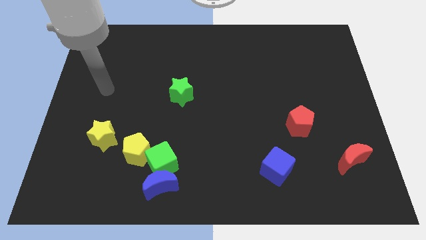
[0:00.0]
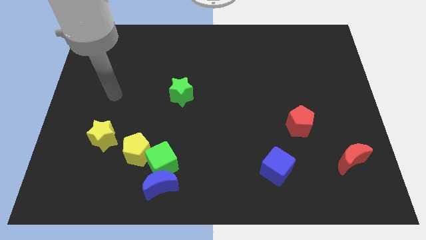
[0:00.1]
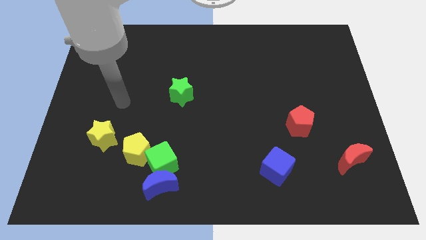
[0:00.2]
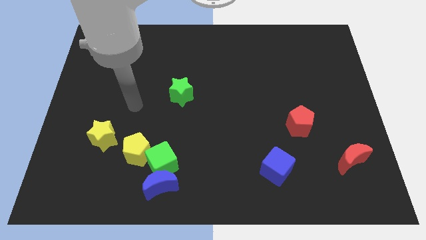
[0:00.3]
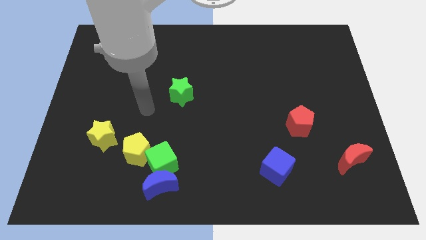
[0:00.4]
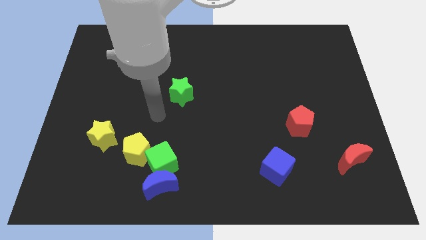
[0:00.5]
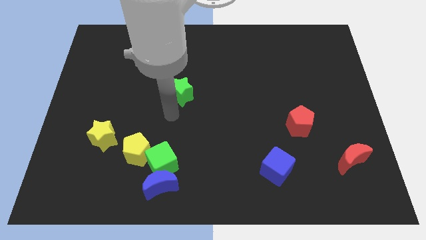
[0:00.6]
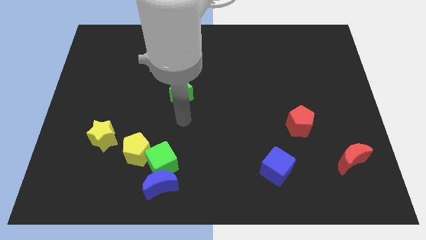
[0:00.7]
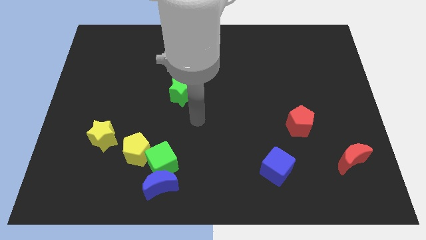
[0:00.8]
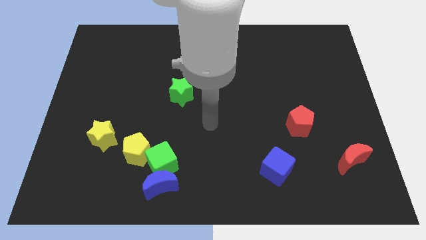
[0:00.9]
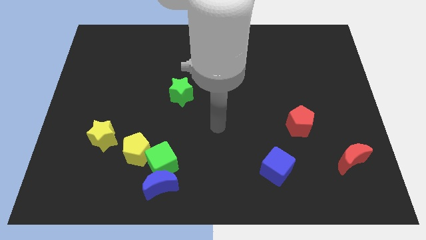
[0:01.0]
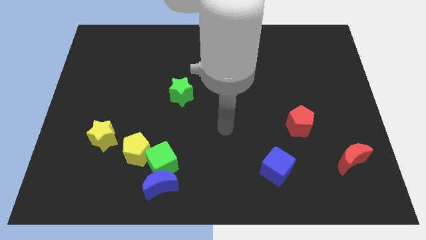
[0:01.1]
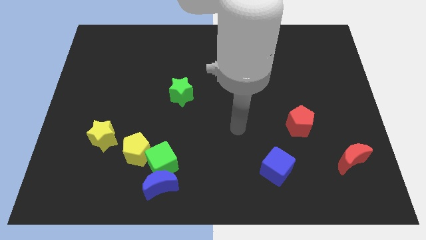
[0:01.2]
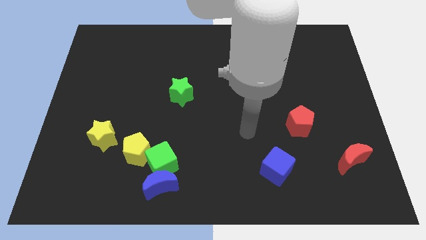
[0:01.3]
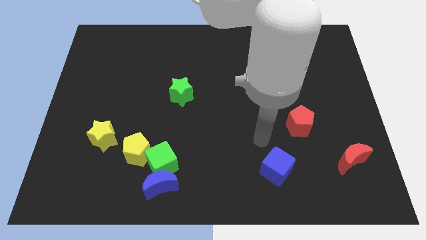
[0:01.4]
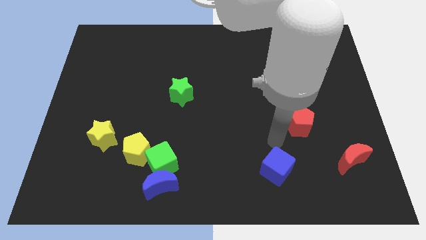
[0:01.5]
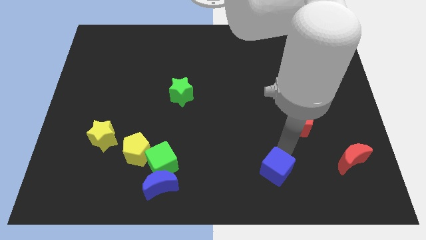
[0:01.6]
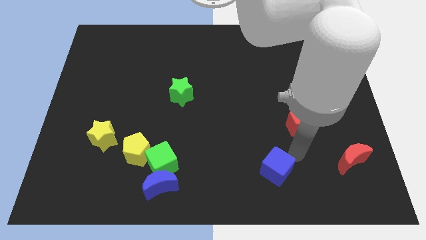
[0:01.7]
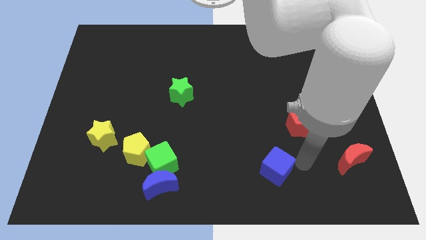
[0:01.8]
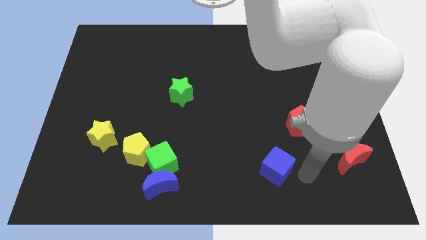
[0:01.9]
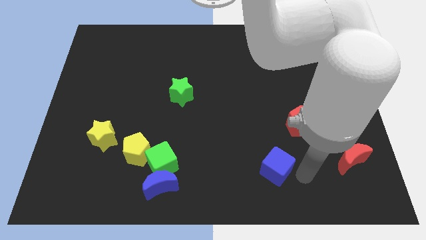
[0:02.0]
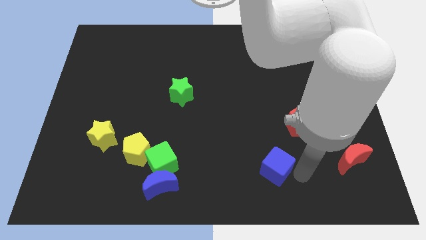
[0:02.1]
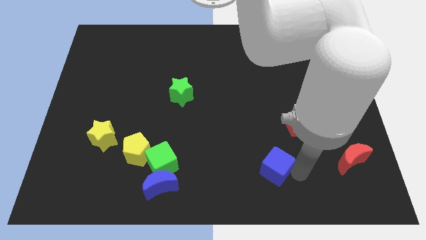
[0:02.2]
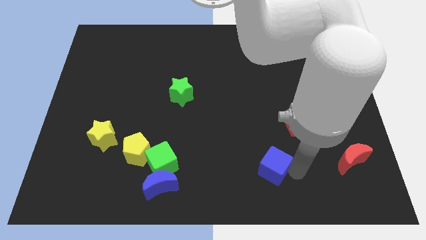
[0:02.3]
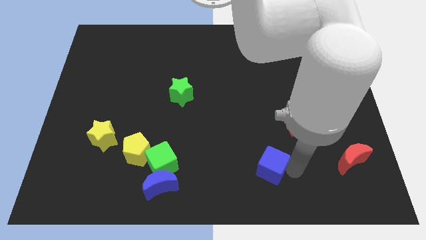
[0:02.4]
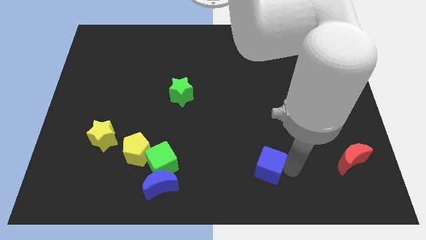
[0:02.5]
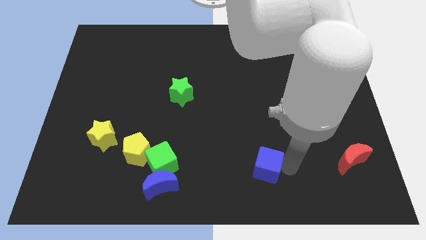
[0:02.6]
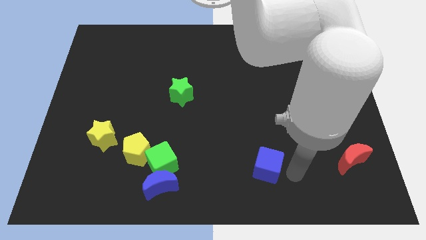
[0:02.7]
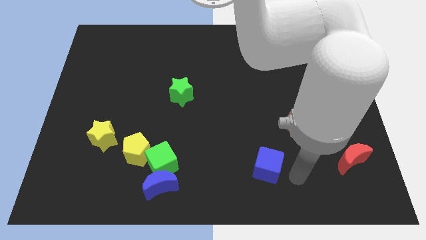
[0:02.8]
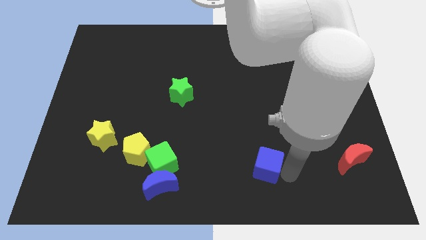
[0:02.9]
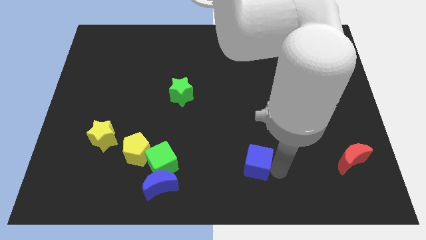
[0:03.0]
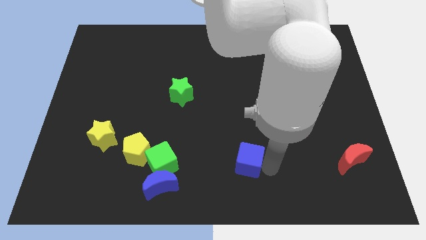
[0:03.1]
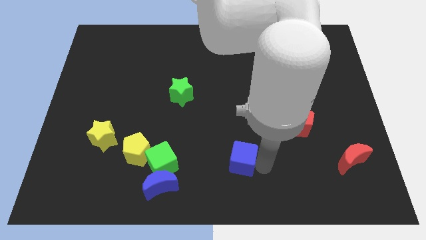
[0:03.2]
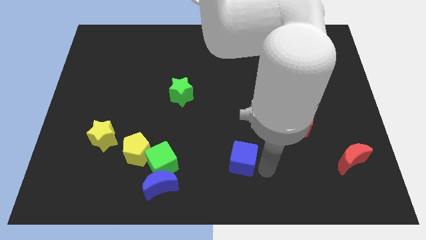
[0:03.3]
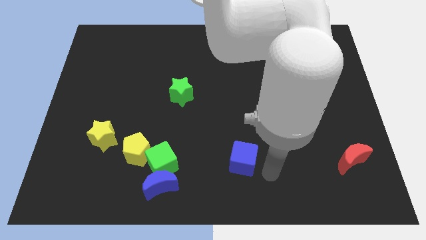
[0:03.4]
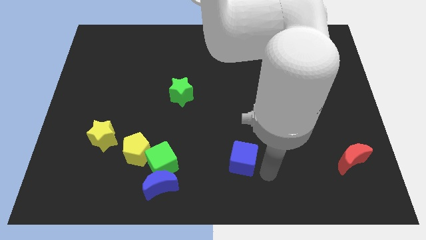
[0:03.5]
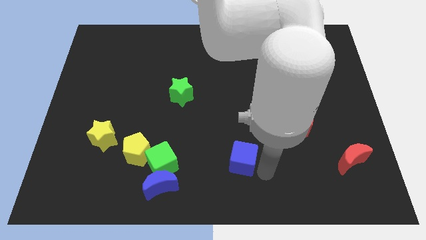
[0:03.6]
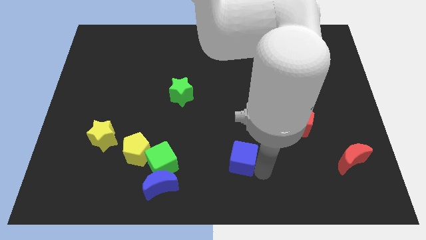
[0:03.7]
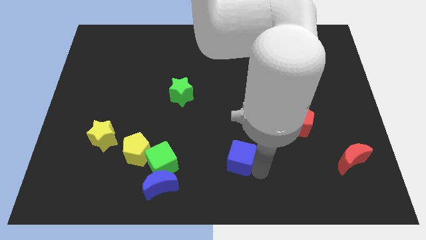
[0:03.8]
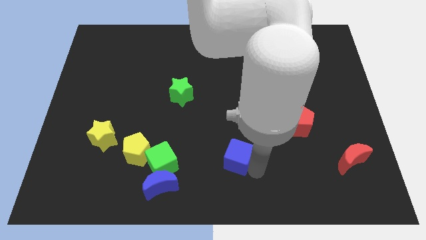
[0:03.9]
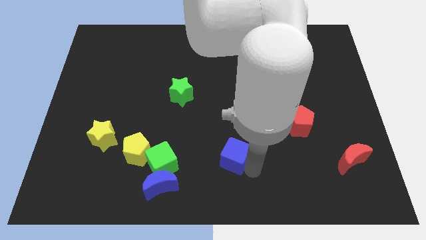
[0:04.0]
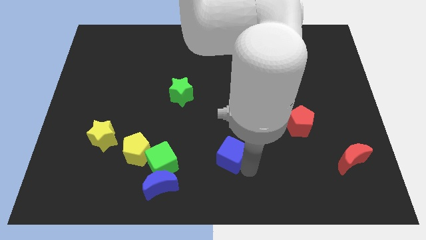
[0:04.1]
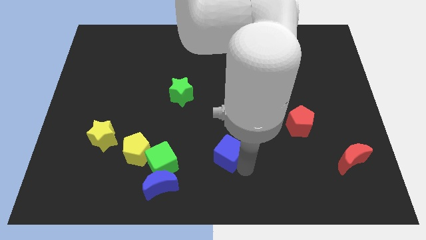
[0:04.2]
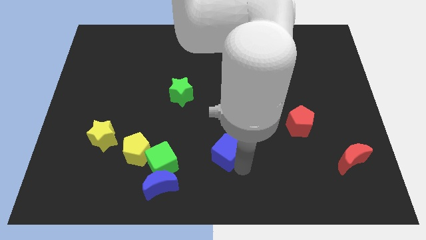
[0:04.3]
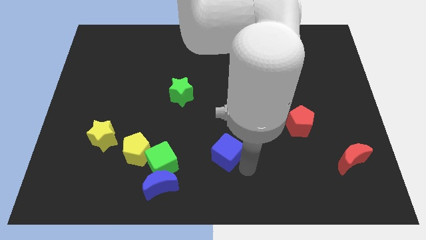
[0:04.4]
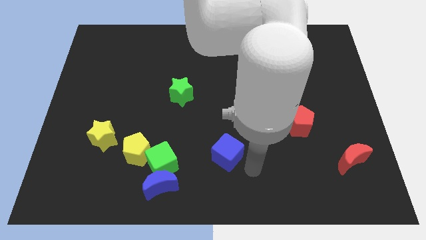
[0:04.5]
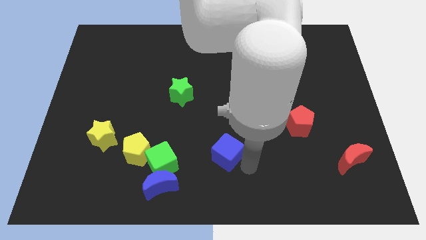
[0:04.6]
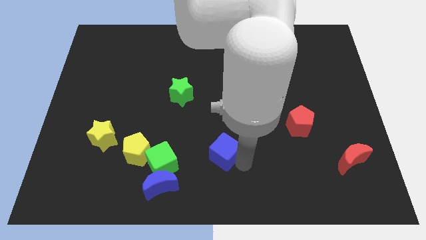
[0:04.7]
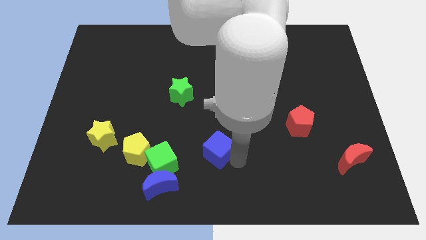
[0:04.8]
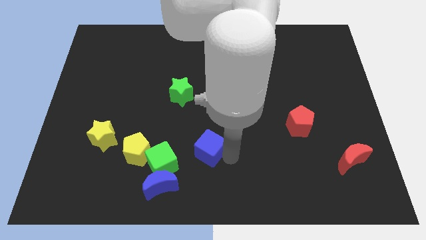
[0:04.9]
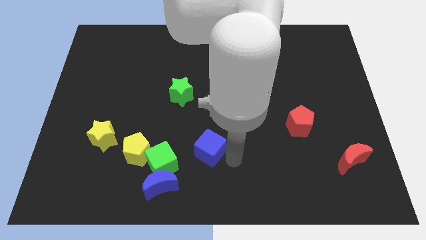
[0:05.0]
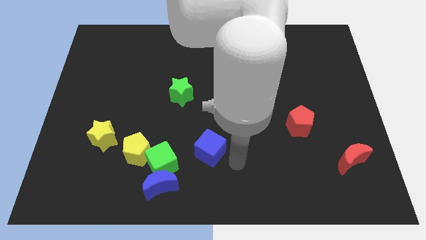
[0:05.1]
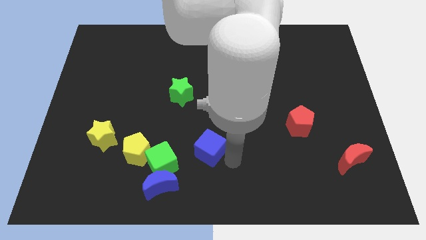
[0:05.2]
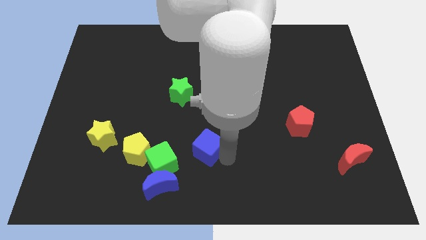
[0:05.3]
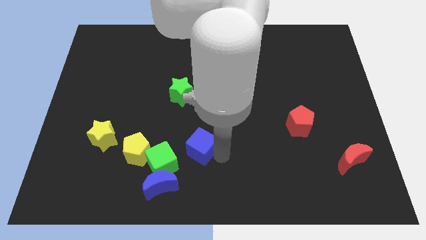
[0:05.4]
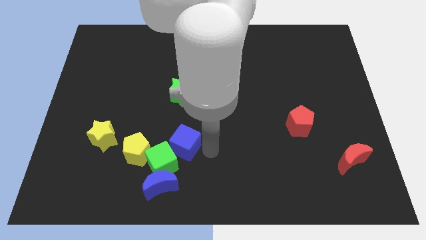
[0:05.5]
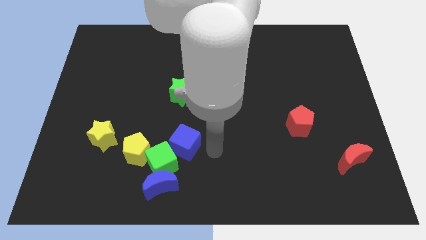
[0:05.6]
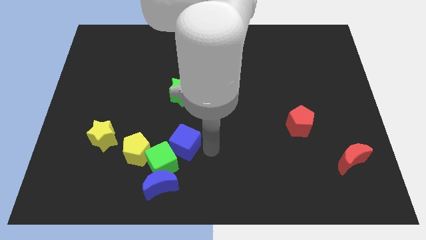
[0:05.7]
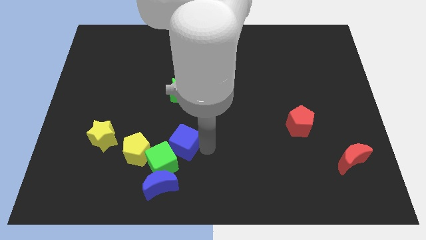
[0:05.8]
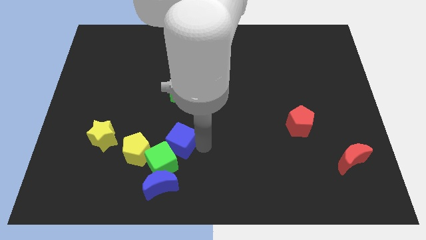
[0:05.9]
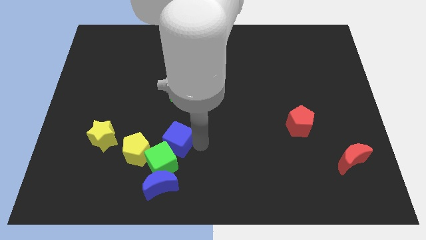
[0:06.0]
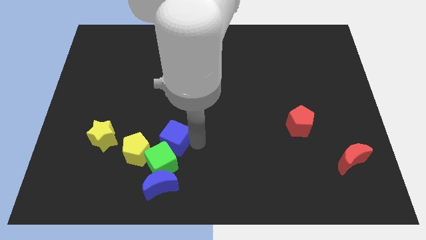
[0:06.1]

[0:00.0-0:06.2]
move the blue cube just right of the yellow star
